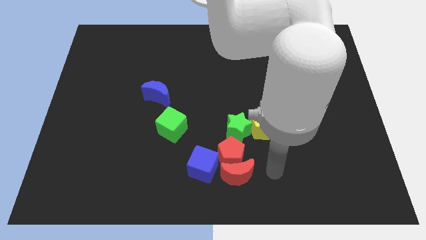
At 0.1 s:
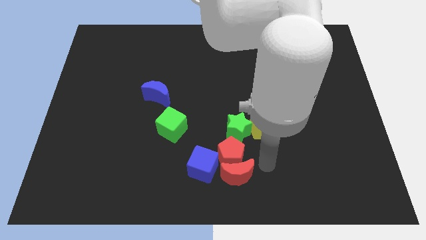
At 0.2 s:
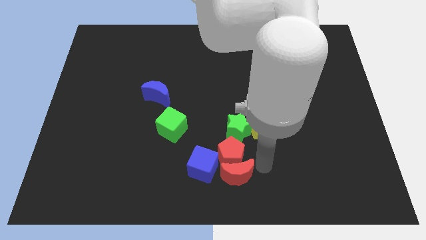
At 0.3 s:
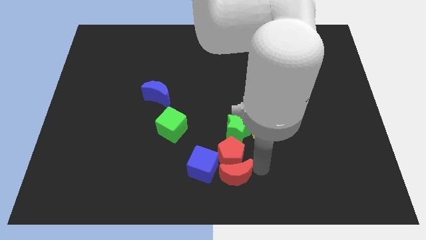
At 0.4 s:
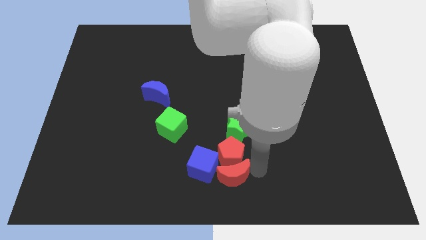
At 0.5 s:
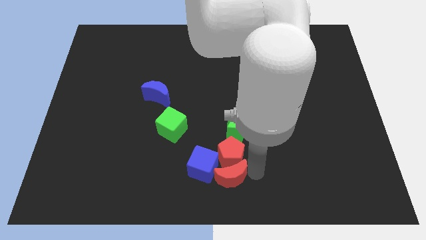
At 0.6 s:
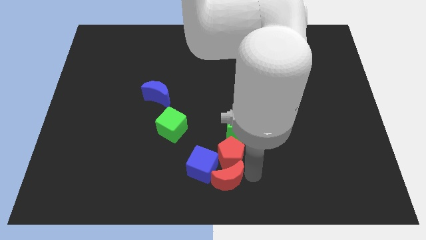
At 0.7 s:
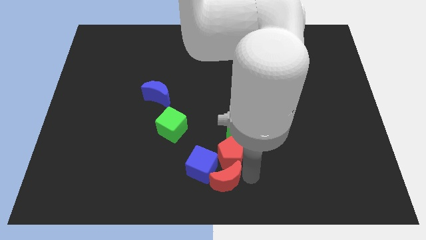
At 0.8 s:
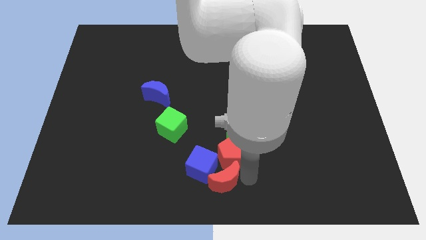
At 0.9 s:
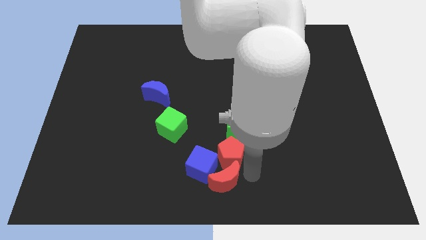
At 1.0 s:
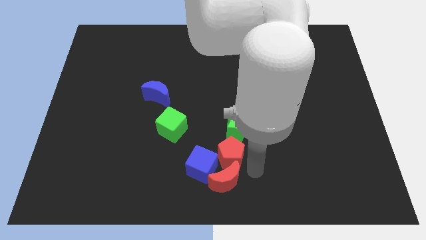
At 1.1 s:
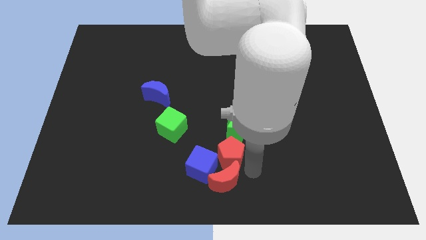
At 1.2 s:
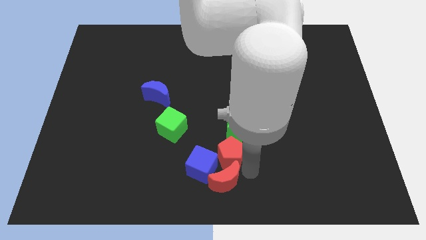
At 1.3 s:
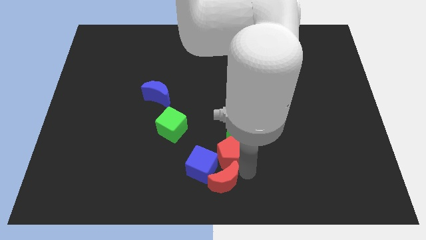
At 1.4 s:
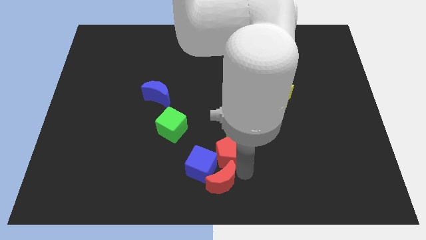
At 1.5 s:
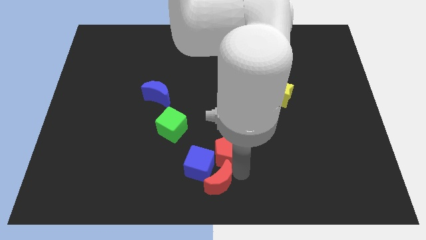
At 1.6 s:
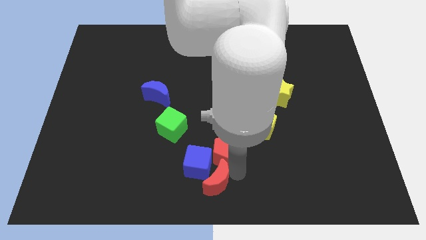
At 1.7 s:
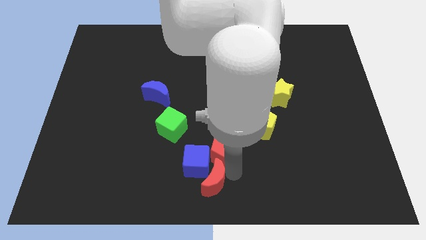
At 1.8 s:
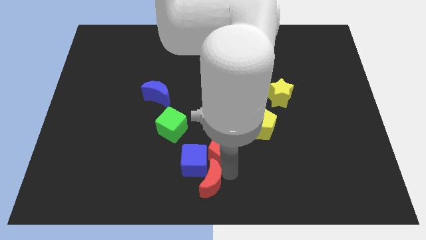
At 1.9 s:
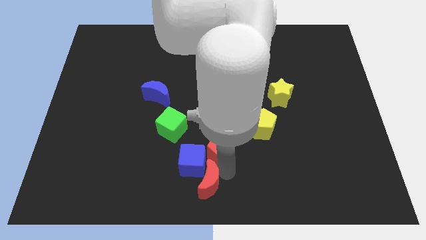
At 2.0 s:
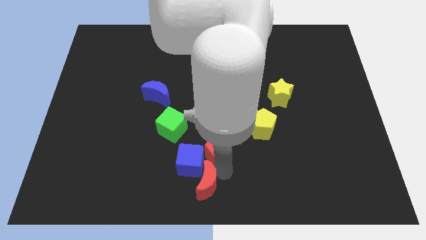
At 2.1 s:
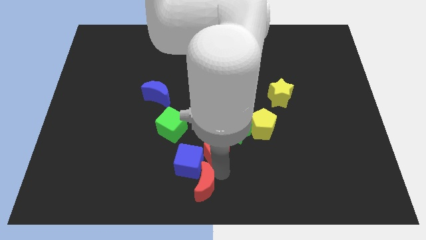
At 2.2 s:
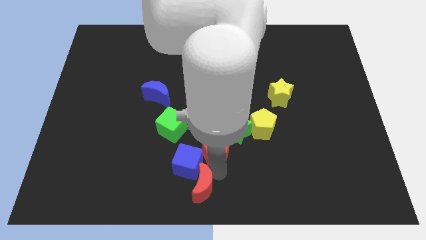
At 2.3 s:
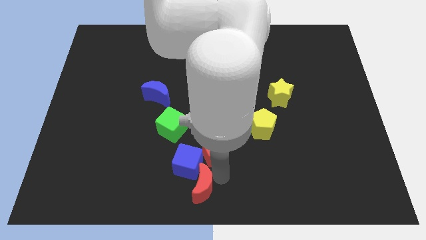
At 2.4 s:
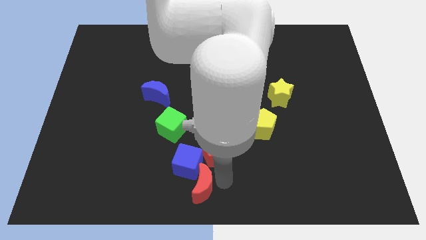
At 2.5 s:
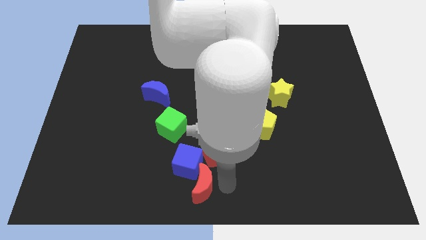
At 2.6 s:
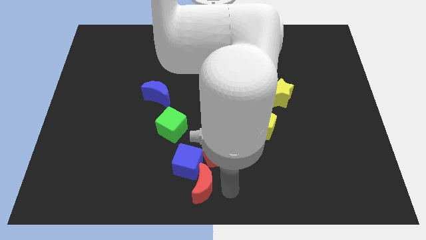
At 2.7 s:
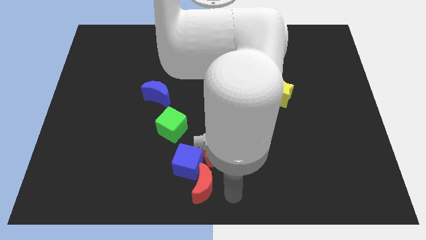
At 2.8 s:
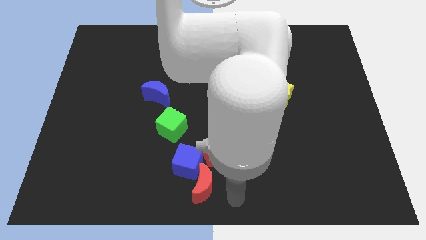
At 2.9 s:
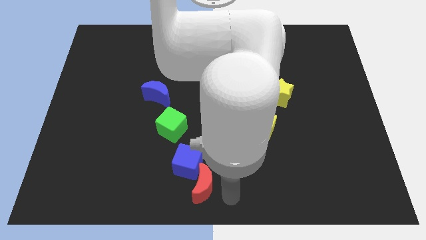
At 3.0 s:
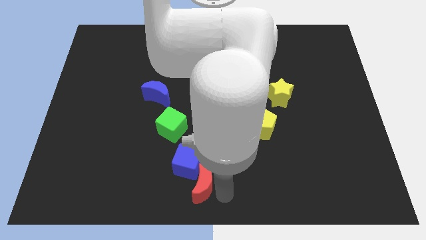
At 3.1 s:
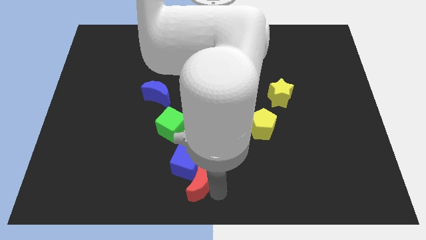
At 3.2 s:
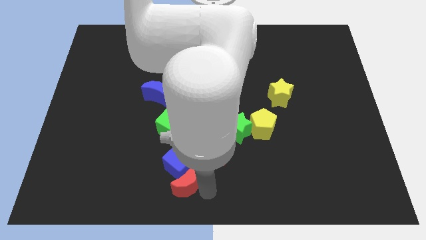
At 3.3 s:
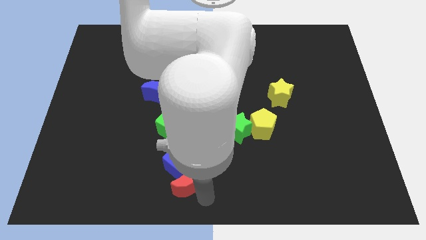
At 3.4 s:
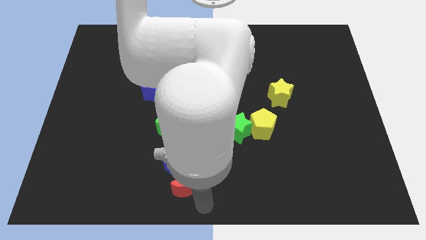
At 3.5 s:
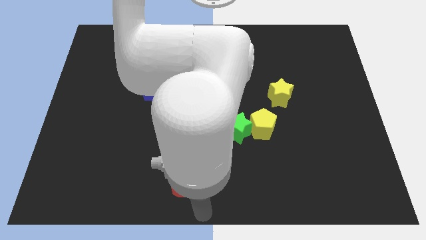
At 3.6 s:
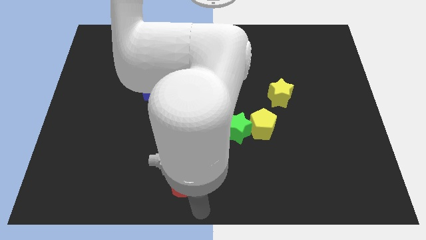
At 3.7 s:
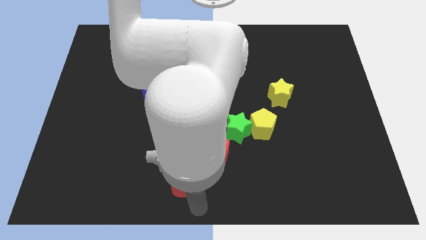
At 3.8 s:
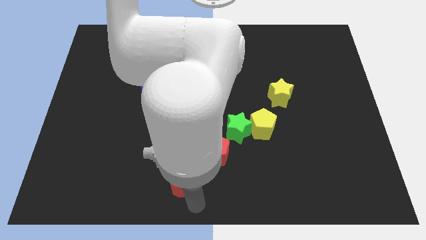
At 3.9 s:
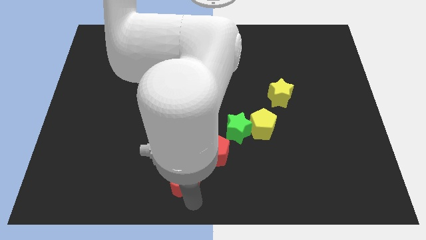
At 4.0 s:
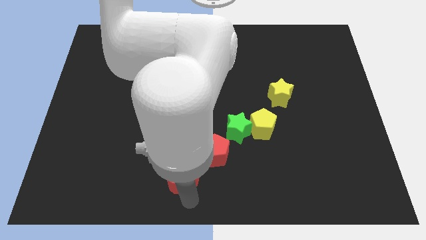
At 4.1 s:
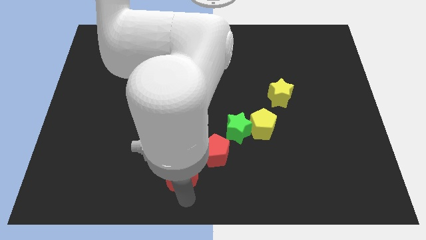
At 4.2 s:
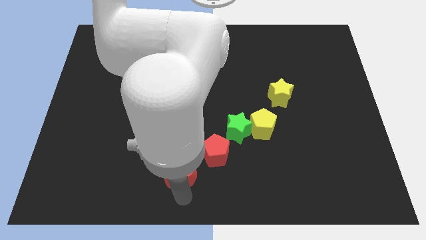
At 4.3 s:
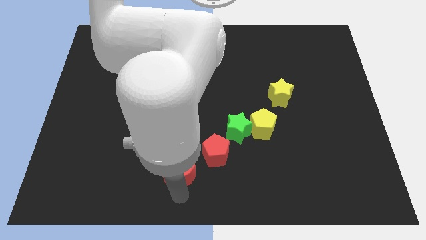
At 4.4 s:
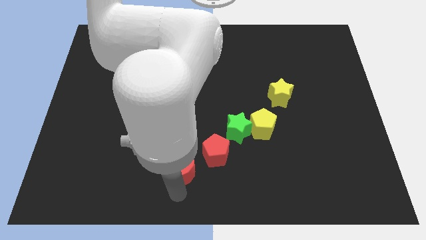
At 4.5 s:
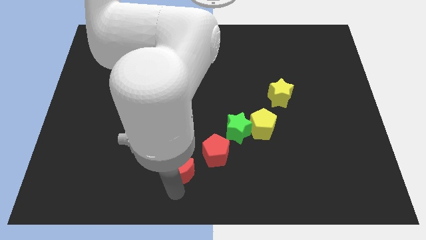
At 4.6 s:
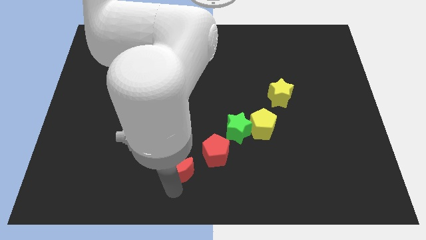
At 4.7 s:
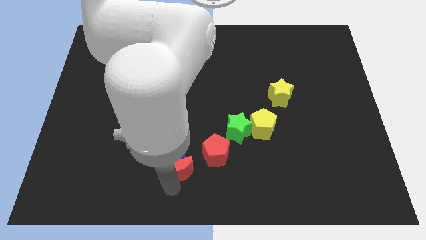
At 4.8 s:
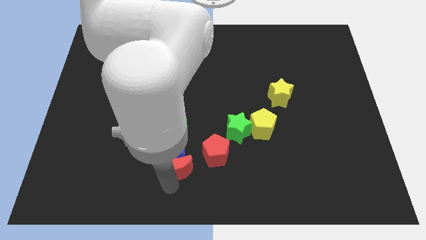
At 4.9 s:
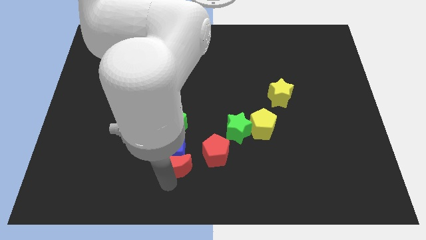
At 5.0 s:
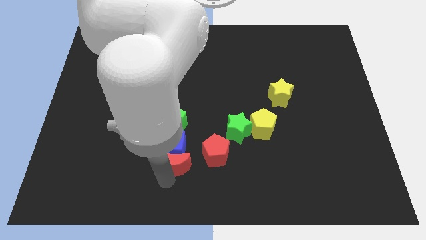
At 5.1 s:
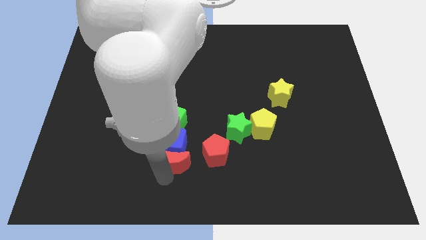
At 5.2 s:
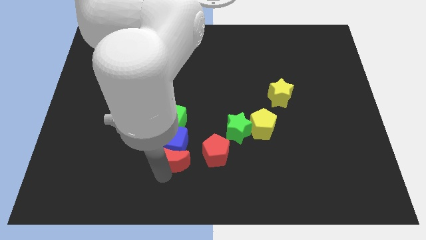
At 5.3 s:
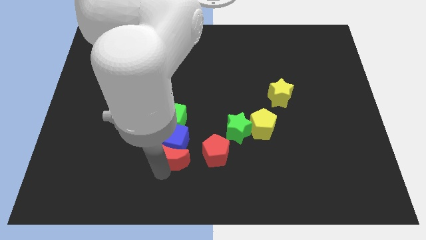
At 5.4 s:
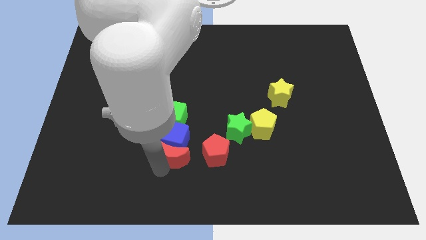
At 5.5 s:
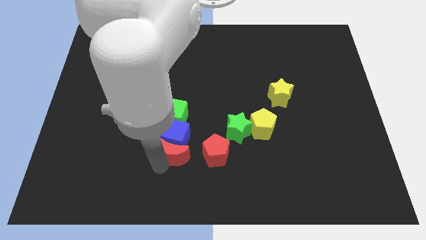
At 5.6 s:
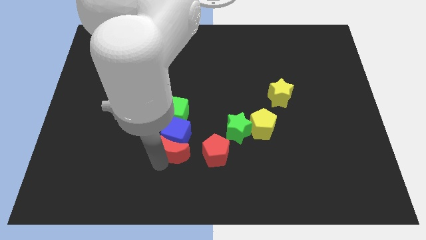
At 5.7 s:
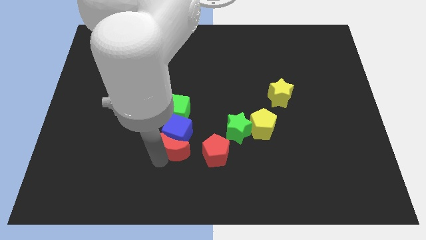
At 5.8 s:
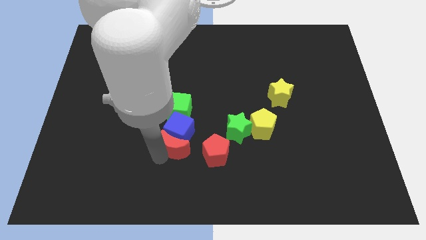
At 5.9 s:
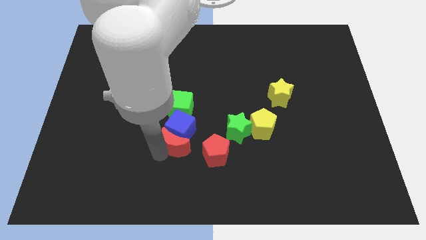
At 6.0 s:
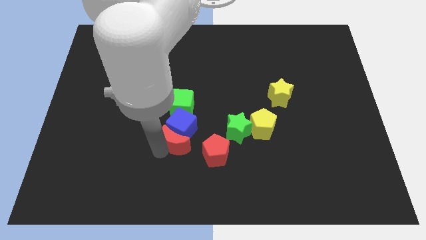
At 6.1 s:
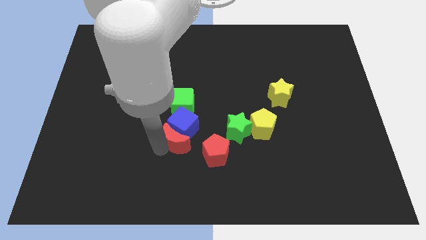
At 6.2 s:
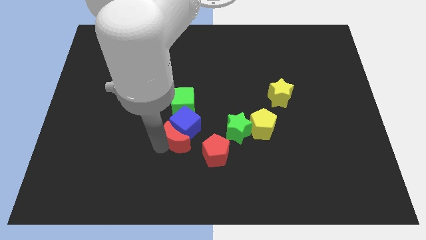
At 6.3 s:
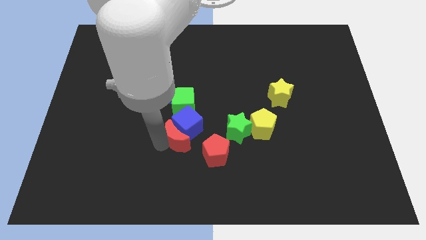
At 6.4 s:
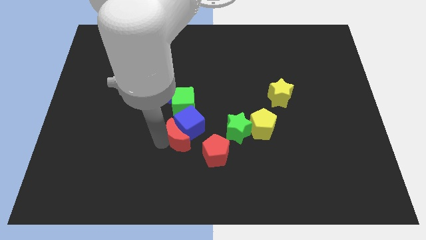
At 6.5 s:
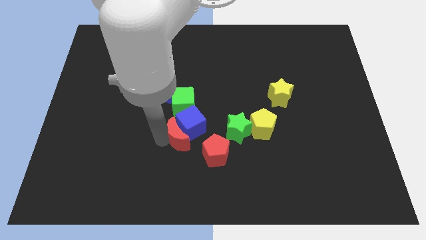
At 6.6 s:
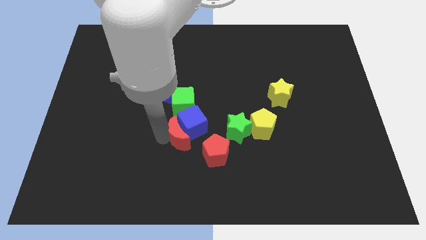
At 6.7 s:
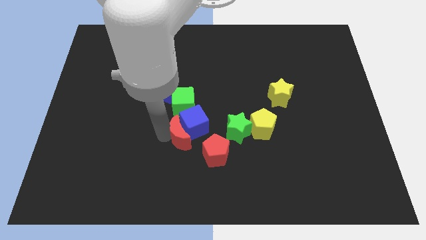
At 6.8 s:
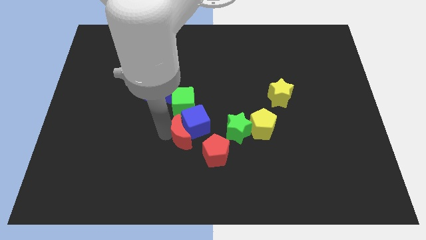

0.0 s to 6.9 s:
push the red moon to the middle
